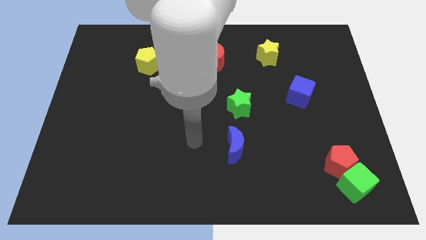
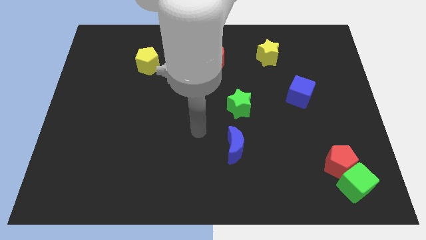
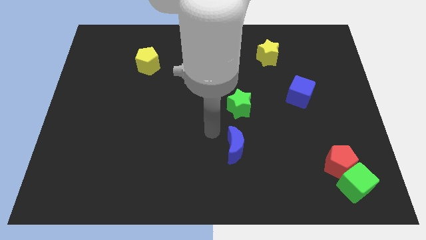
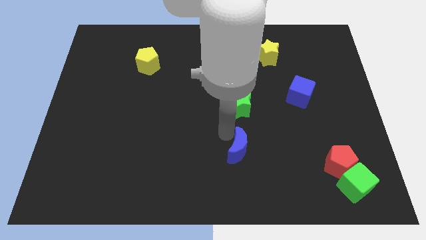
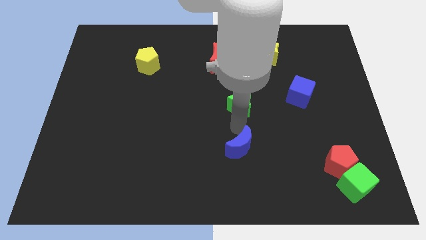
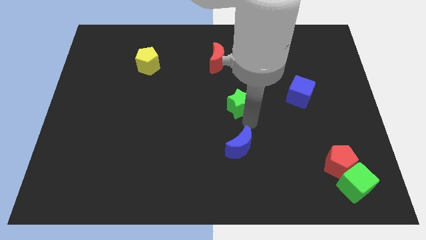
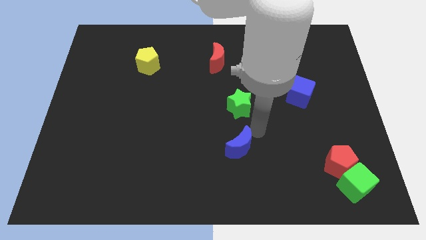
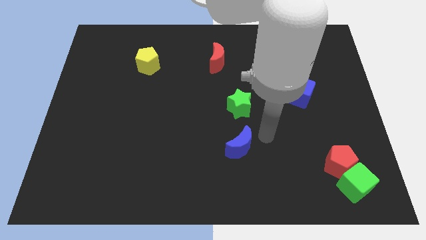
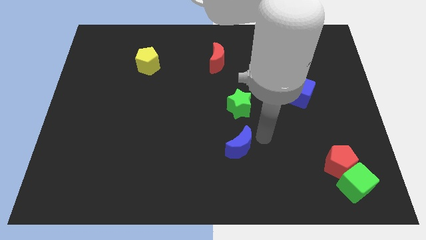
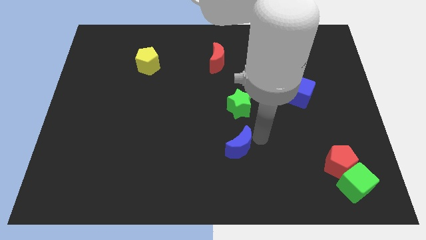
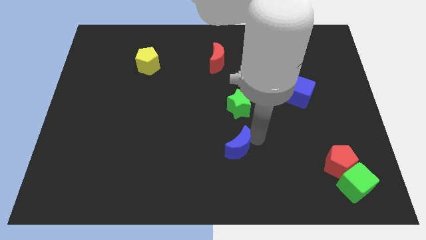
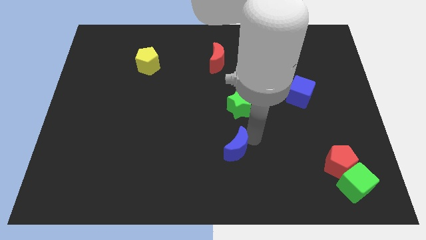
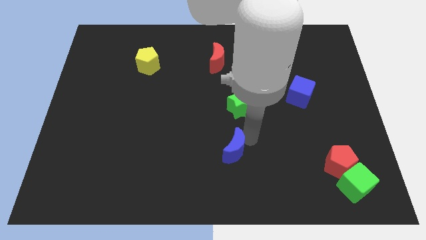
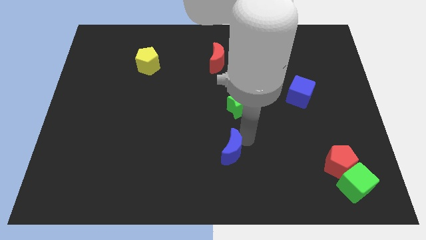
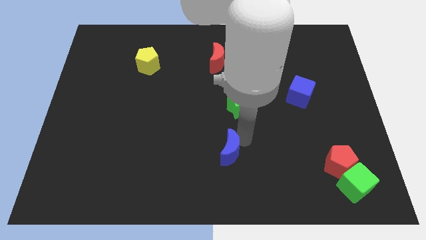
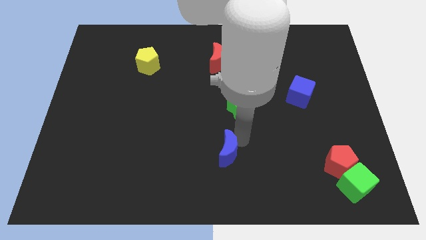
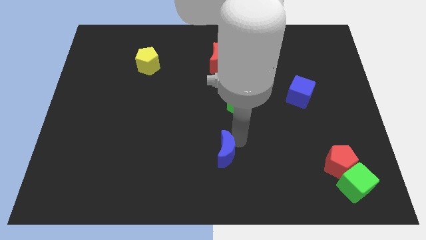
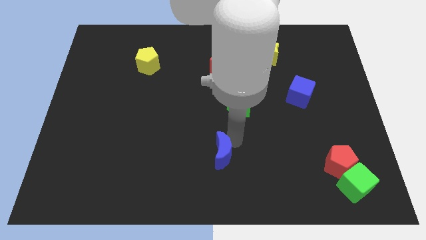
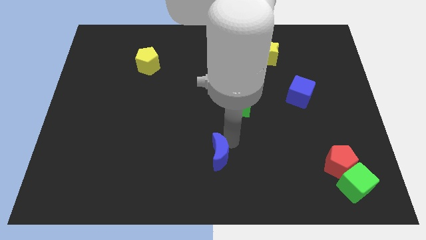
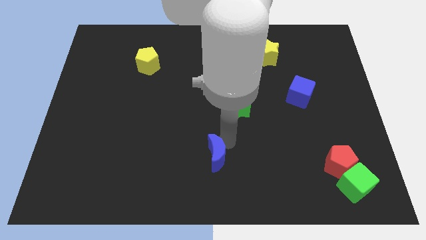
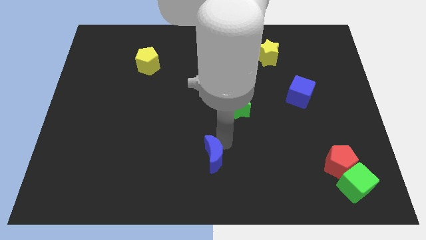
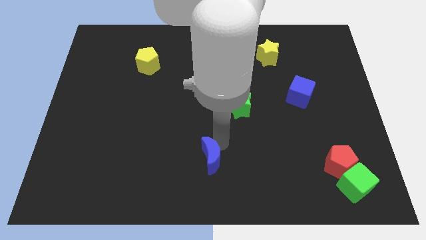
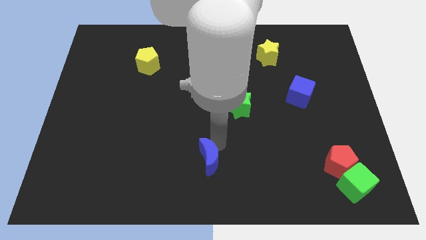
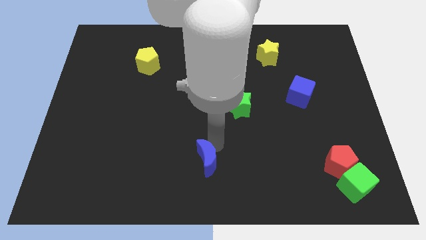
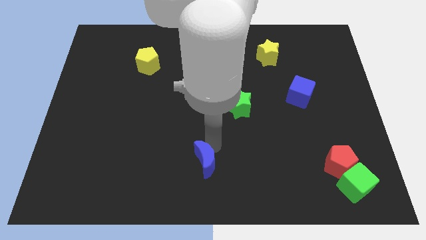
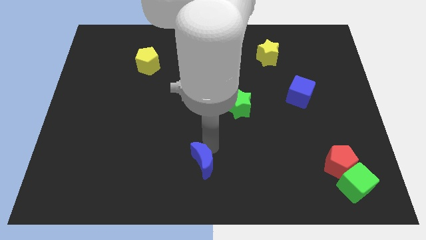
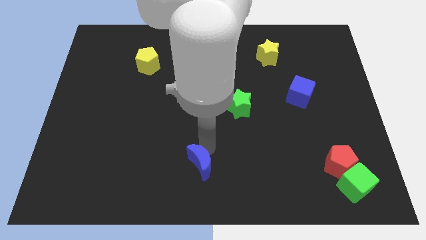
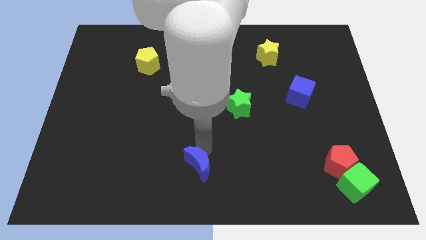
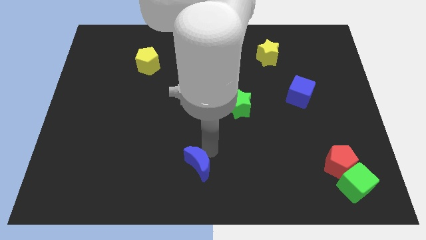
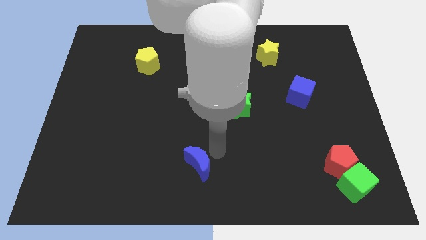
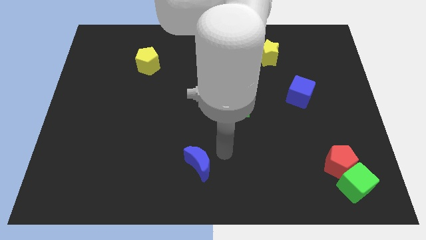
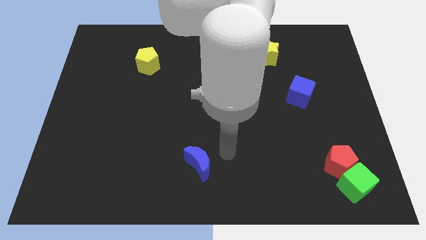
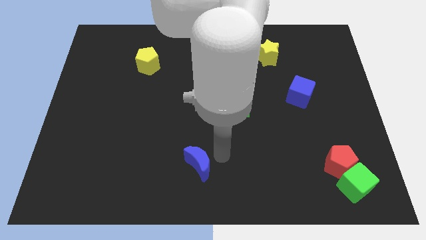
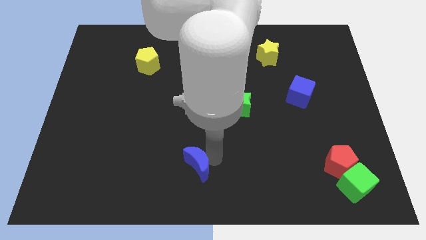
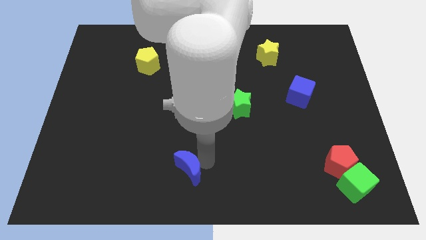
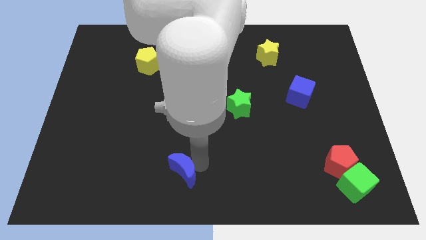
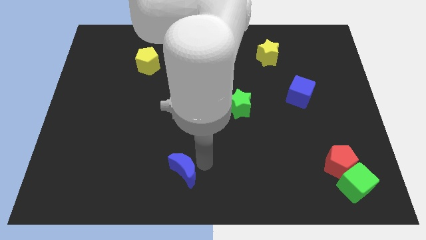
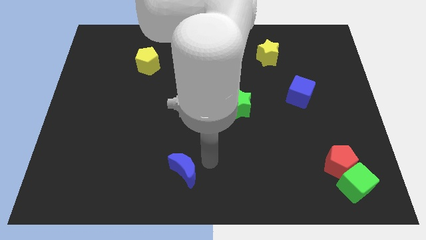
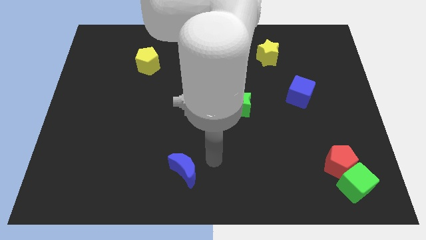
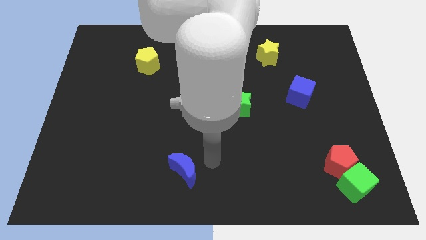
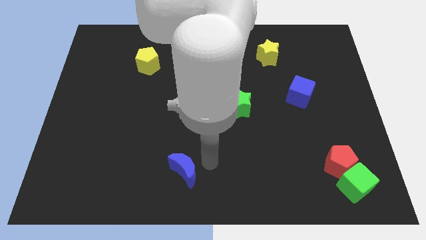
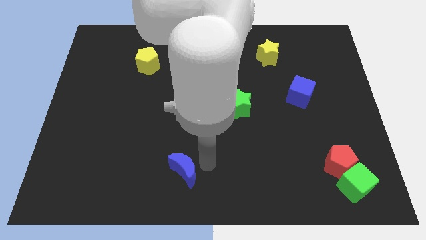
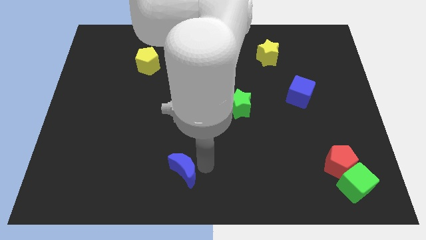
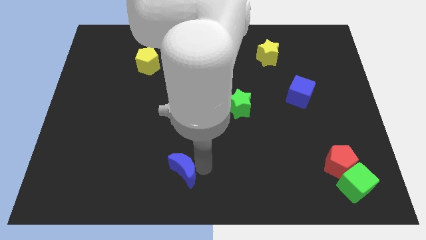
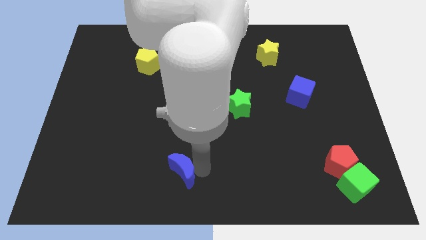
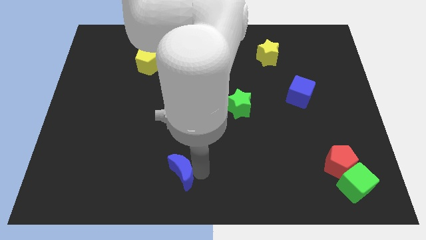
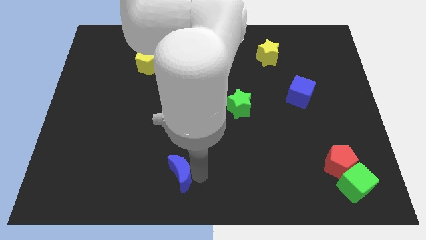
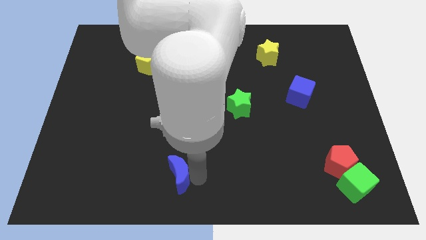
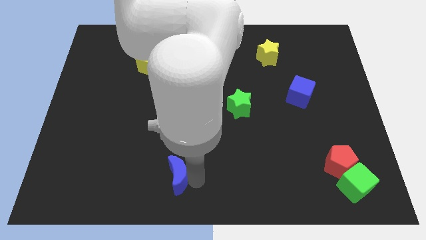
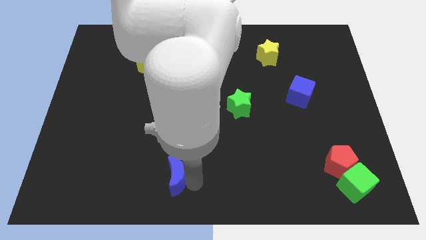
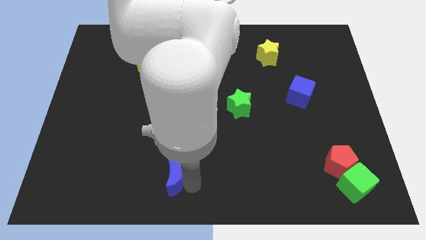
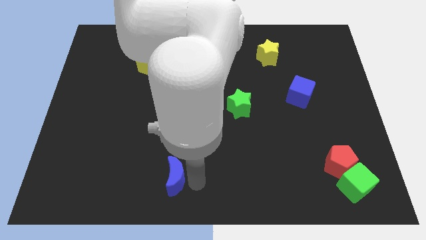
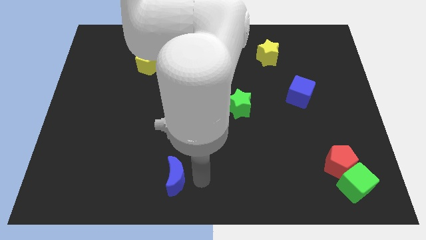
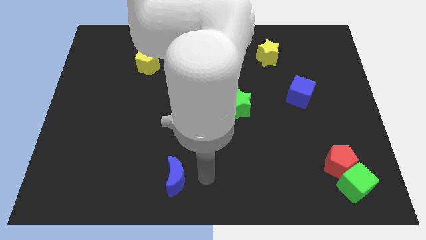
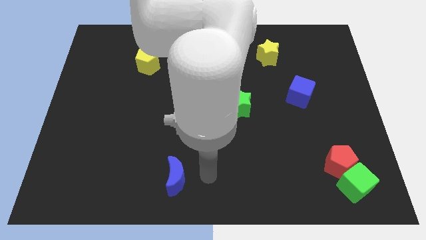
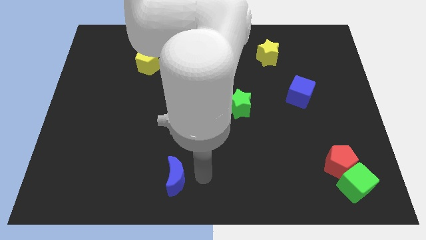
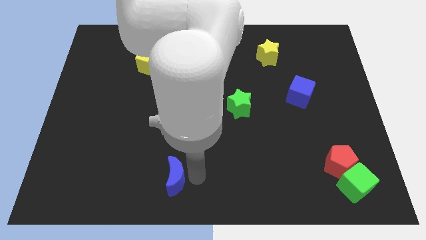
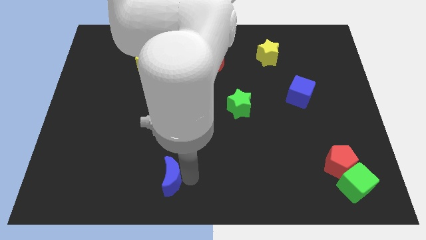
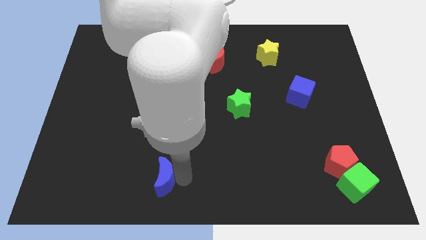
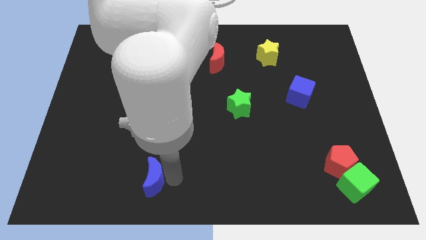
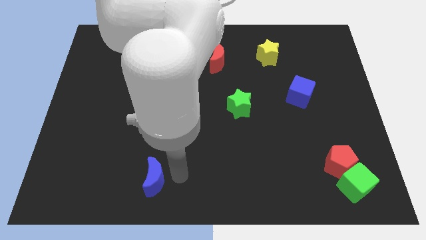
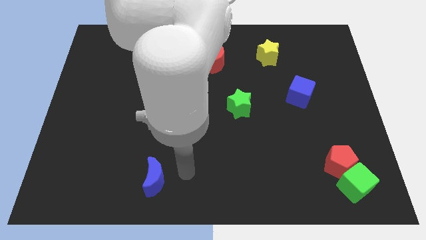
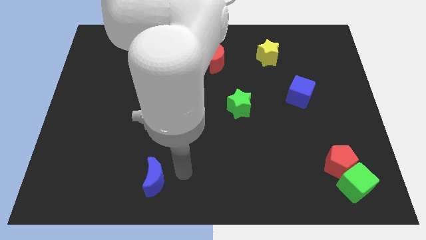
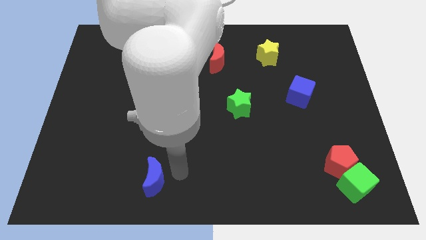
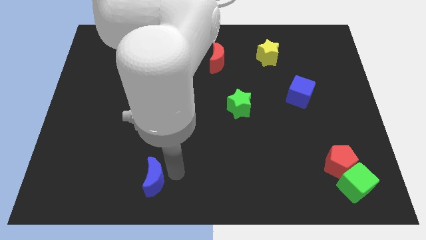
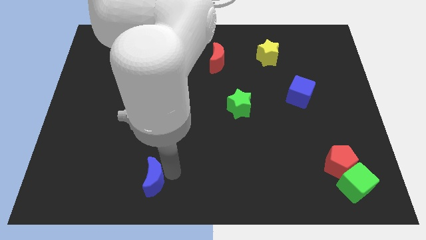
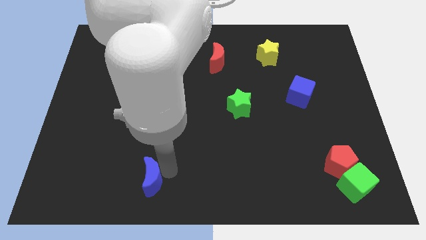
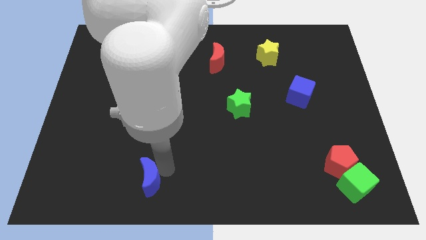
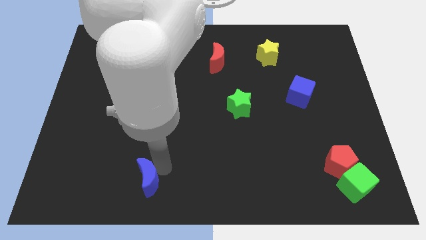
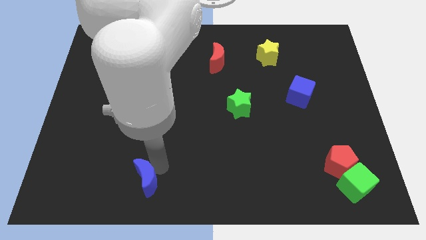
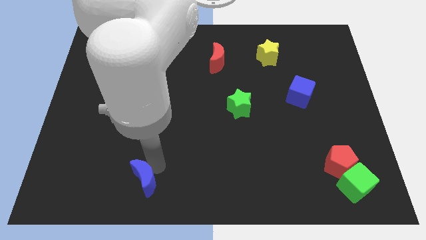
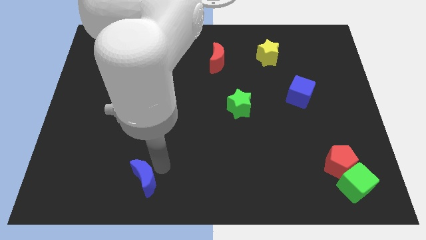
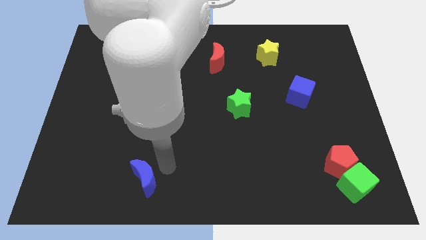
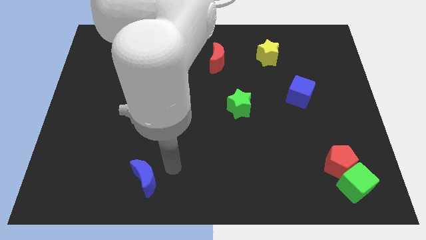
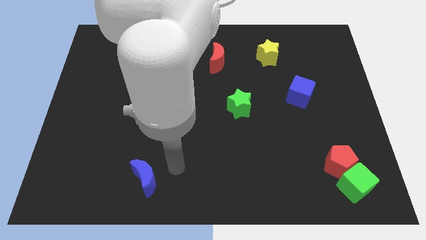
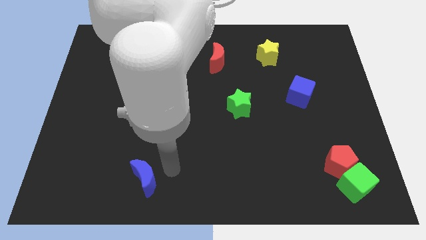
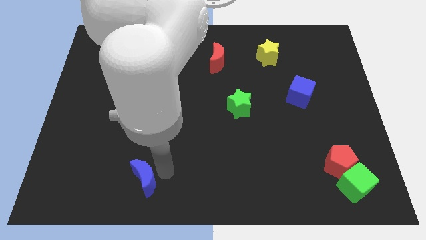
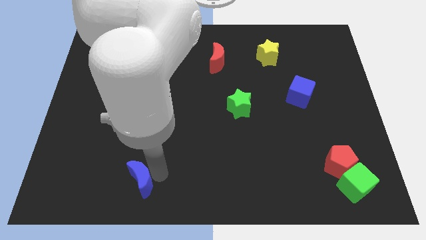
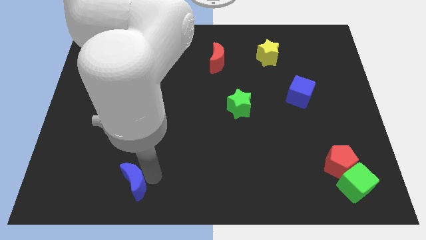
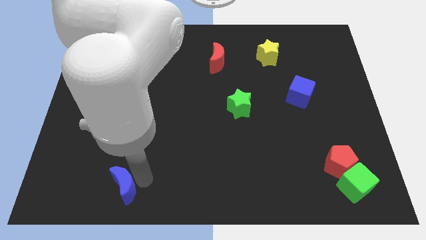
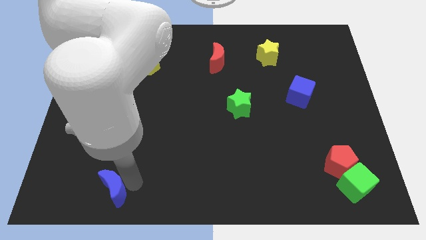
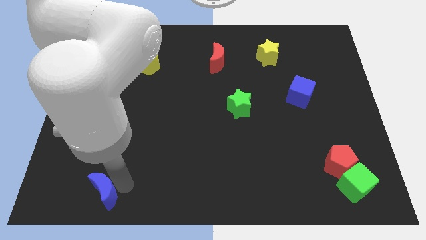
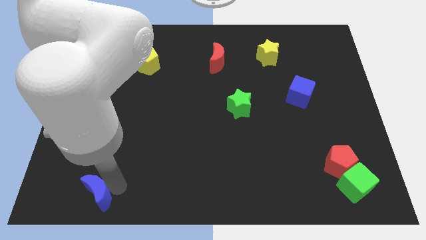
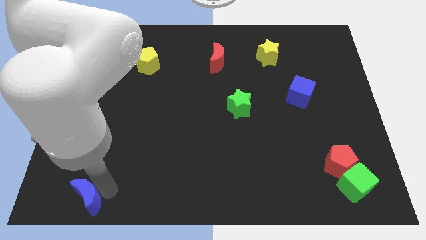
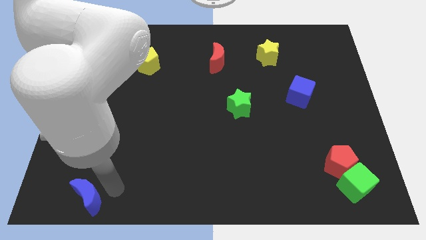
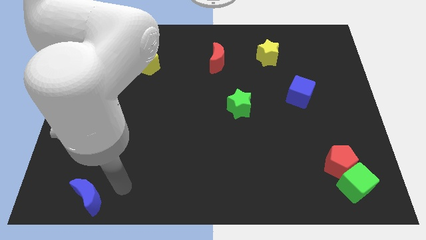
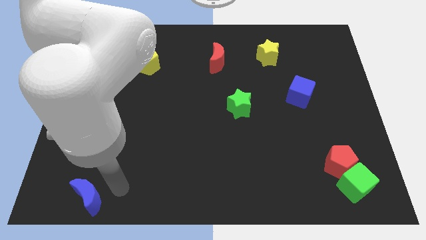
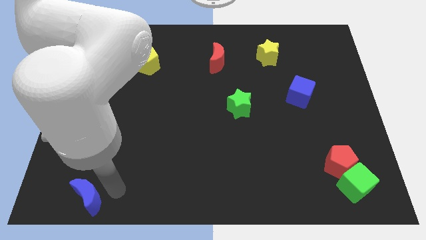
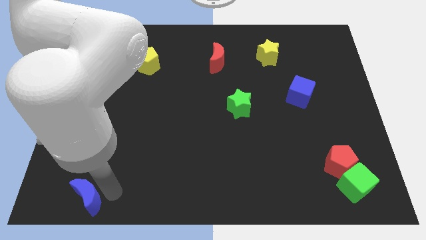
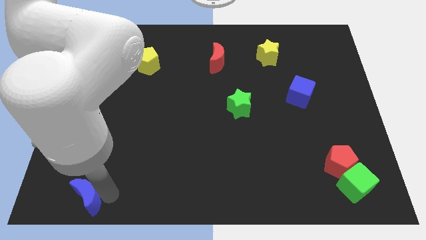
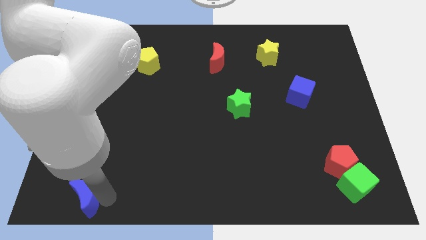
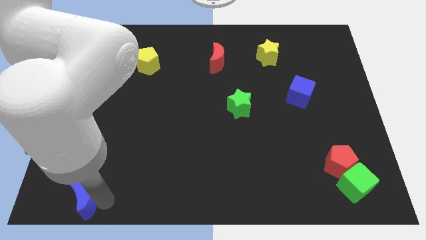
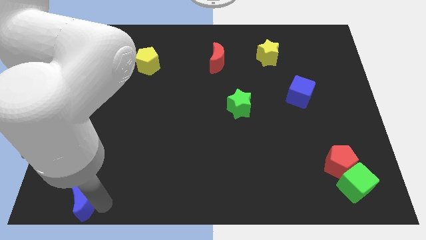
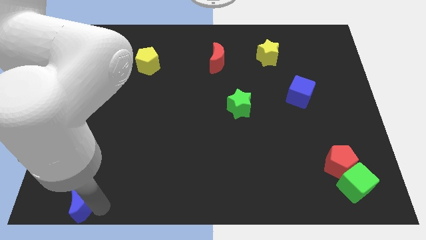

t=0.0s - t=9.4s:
push the blue moon to the lower left corner
